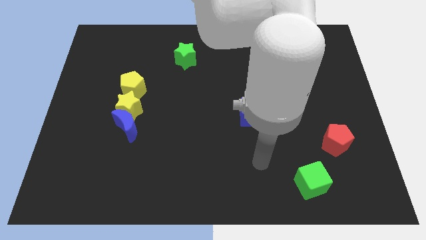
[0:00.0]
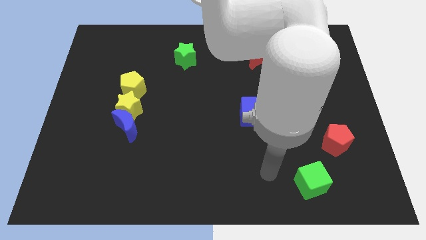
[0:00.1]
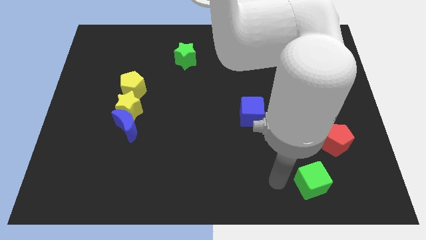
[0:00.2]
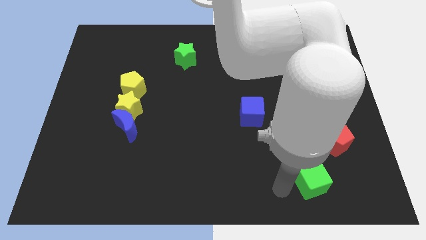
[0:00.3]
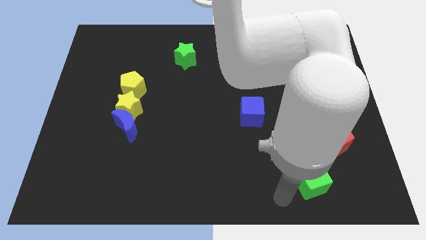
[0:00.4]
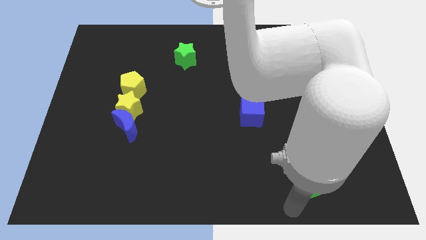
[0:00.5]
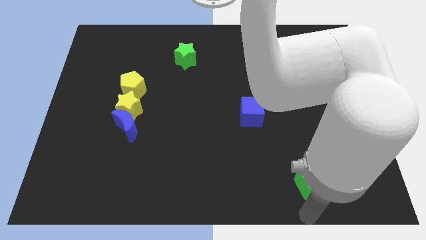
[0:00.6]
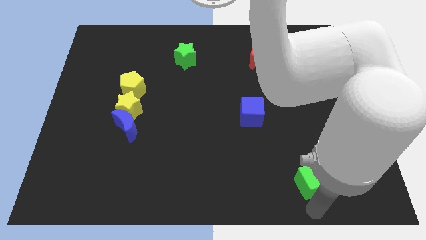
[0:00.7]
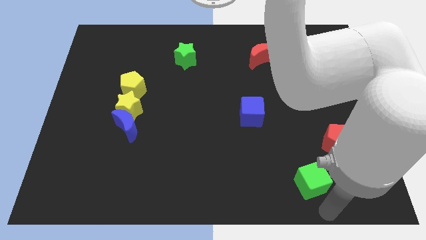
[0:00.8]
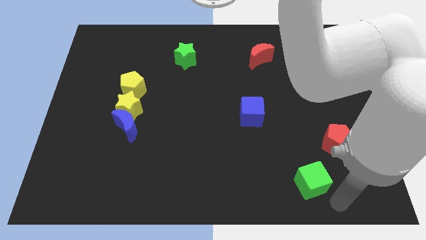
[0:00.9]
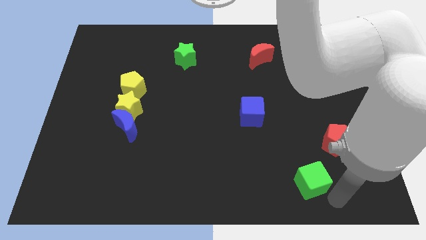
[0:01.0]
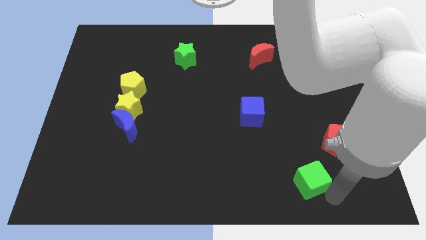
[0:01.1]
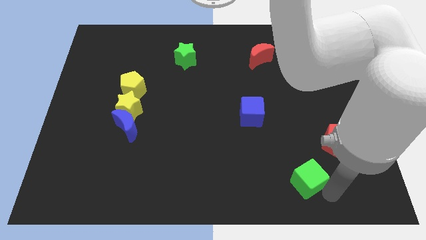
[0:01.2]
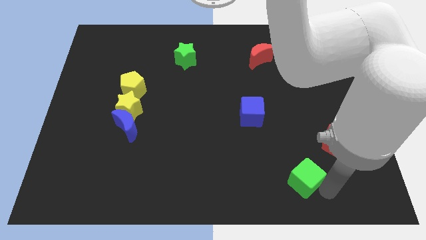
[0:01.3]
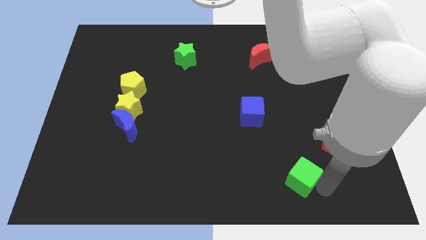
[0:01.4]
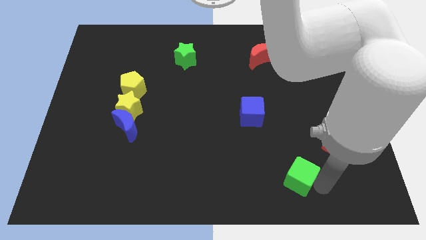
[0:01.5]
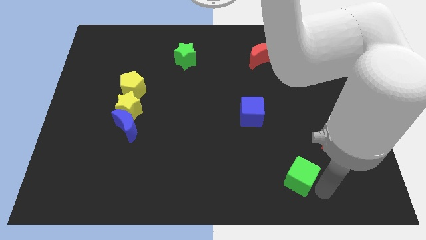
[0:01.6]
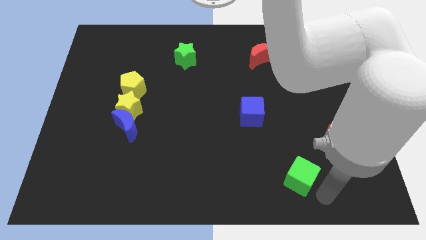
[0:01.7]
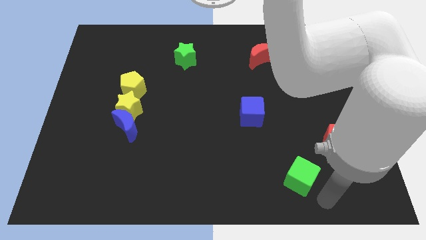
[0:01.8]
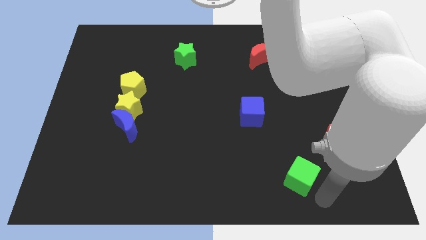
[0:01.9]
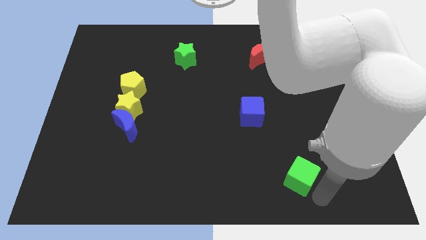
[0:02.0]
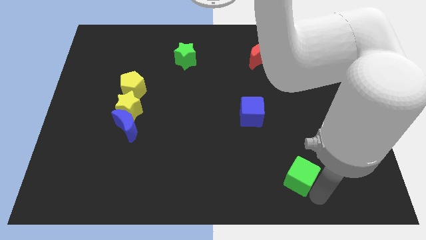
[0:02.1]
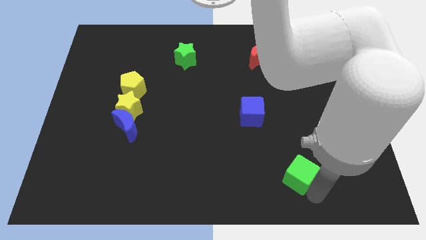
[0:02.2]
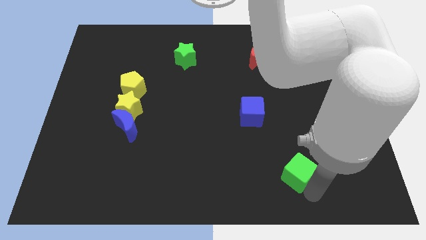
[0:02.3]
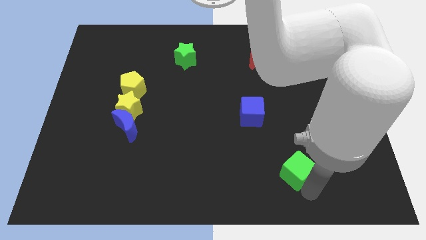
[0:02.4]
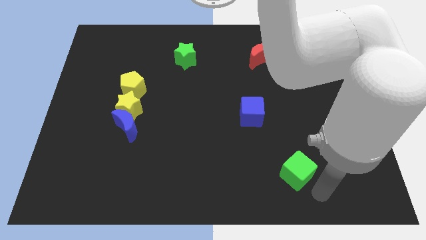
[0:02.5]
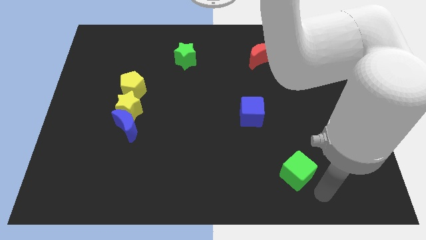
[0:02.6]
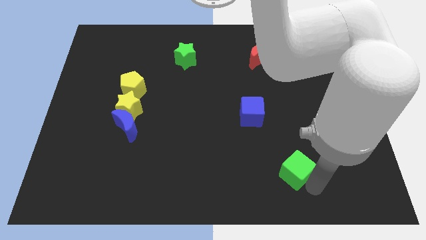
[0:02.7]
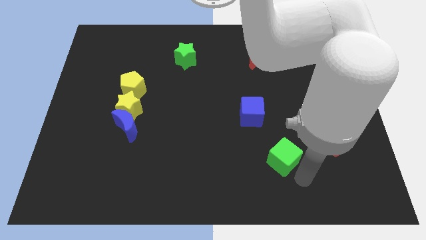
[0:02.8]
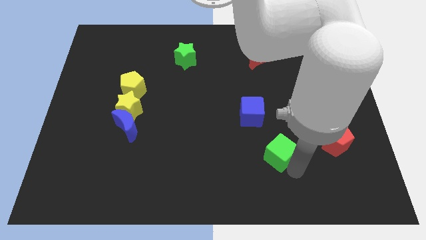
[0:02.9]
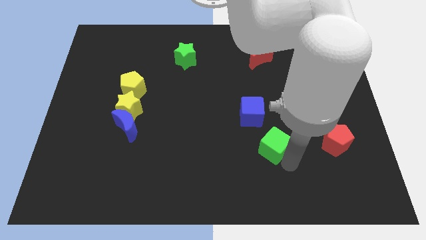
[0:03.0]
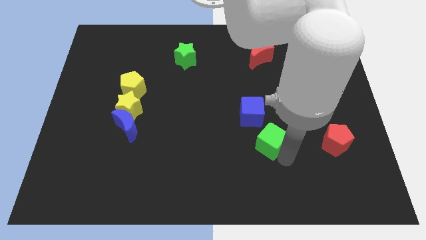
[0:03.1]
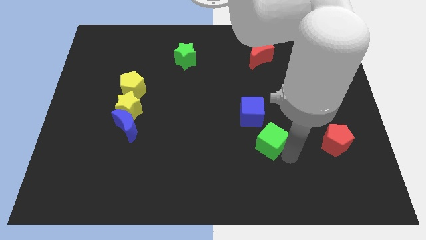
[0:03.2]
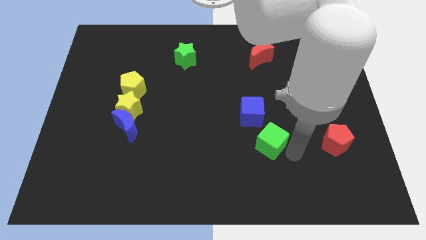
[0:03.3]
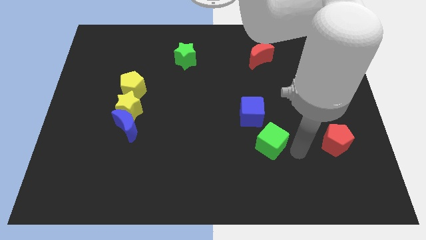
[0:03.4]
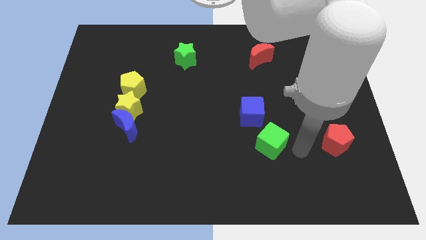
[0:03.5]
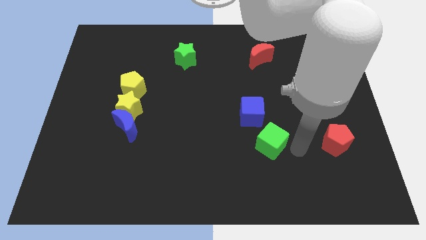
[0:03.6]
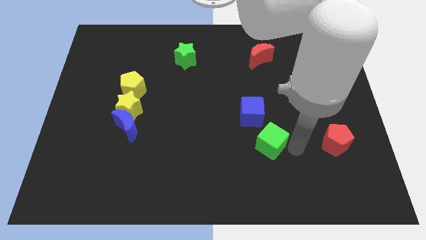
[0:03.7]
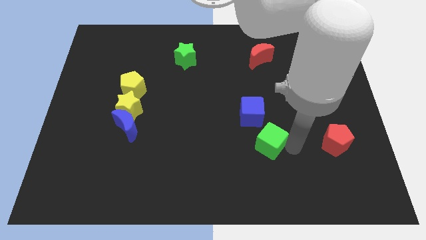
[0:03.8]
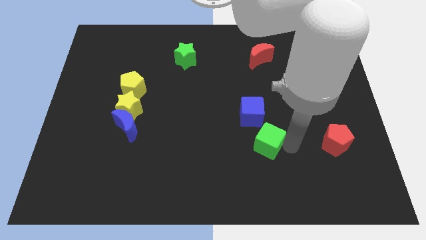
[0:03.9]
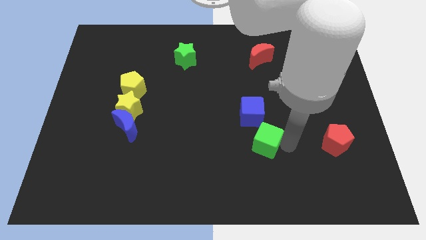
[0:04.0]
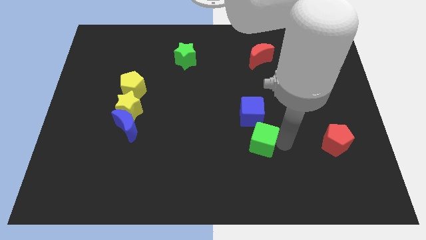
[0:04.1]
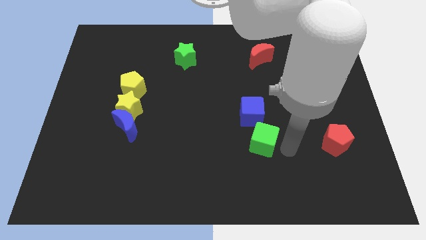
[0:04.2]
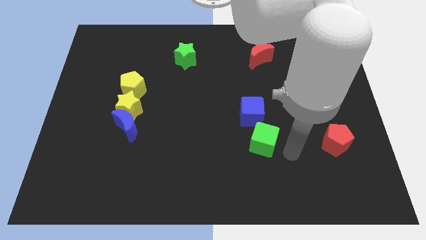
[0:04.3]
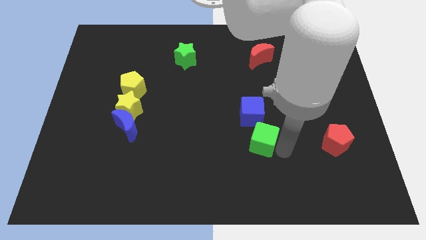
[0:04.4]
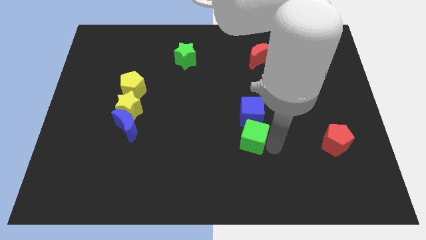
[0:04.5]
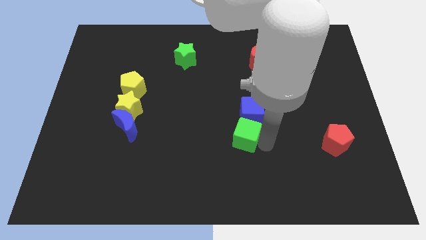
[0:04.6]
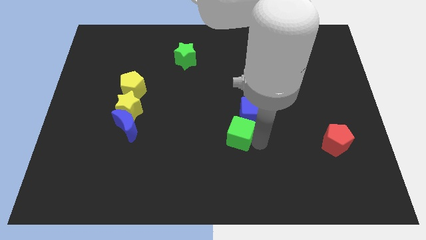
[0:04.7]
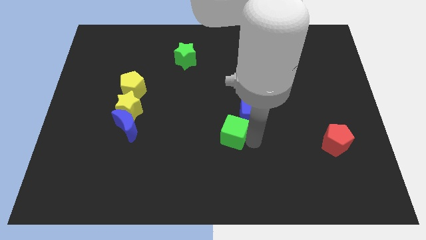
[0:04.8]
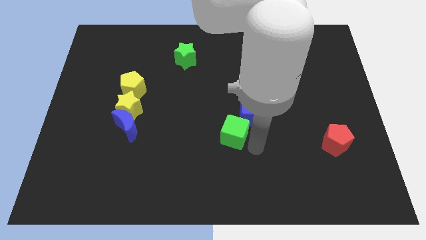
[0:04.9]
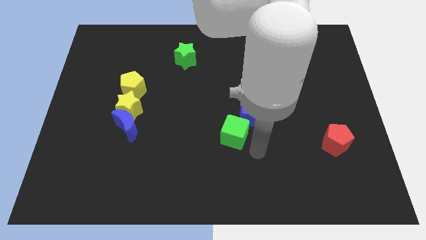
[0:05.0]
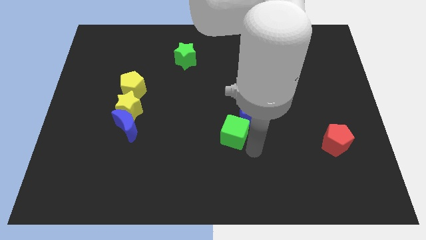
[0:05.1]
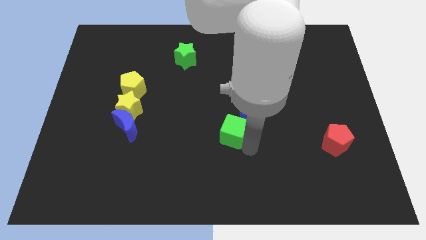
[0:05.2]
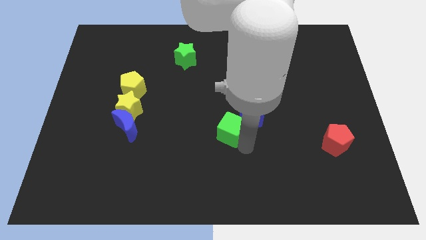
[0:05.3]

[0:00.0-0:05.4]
put the green cube left of the blue cube

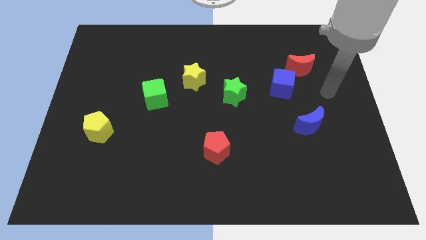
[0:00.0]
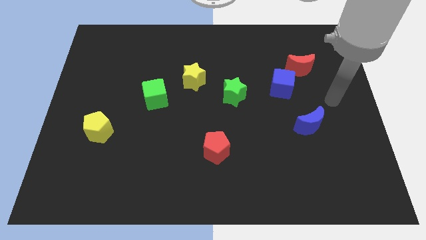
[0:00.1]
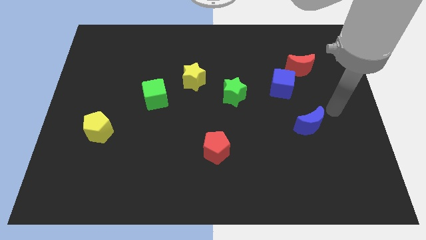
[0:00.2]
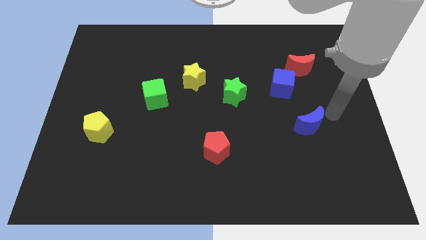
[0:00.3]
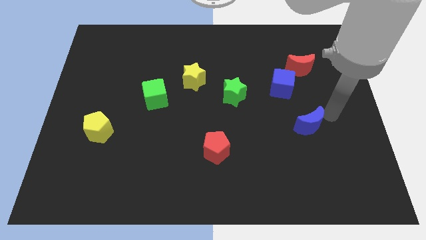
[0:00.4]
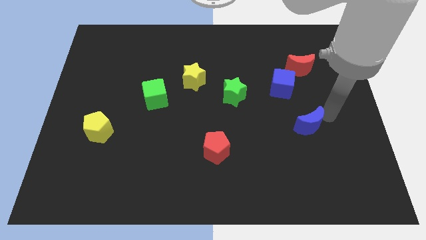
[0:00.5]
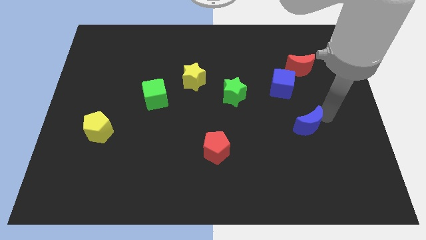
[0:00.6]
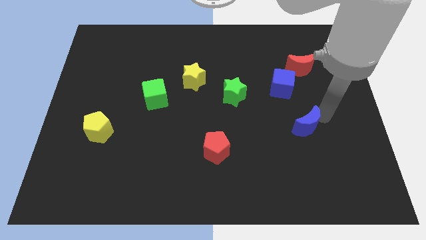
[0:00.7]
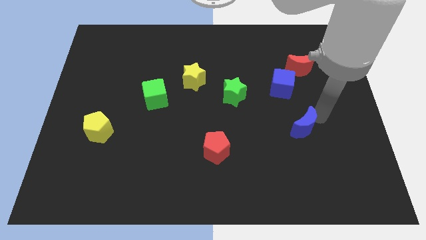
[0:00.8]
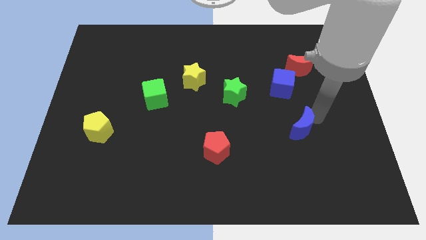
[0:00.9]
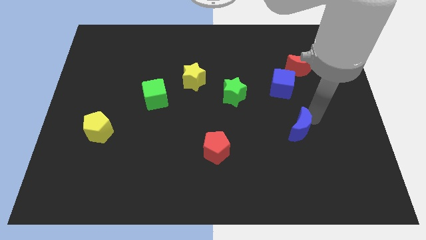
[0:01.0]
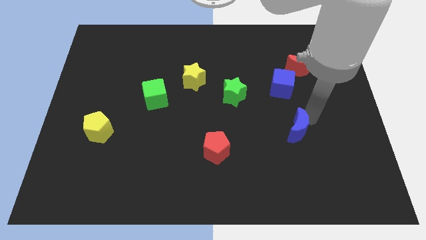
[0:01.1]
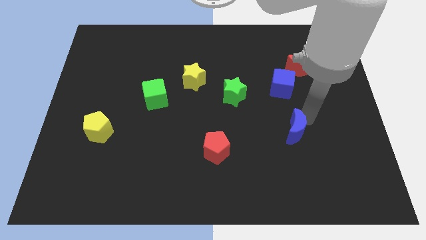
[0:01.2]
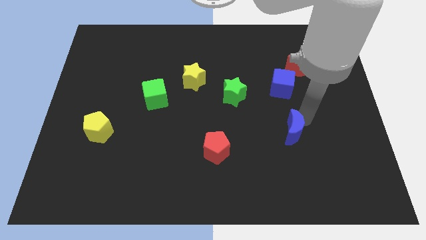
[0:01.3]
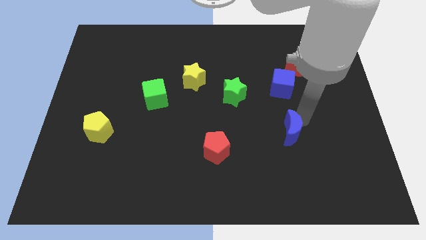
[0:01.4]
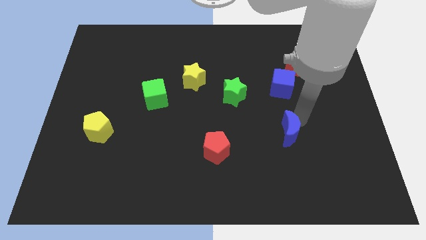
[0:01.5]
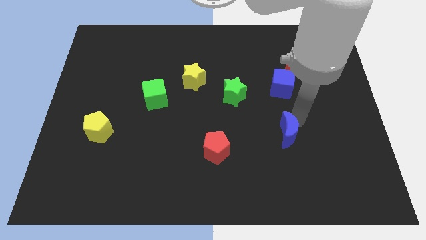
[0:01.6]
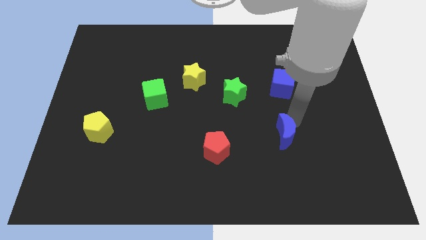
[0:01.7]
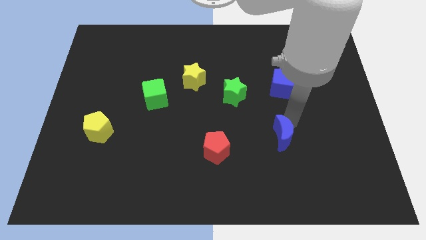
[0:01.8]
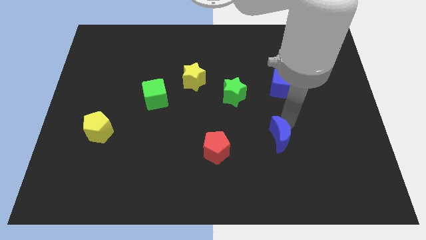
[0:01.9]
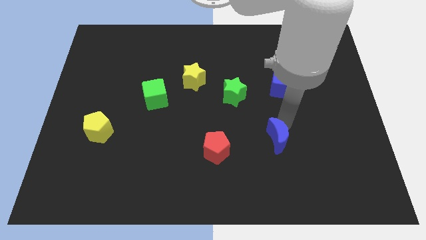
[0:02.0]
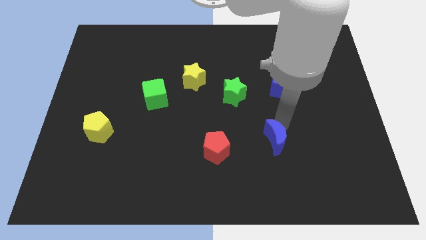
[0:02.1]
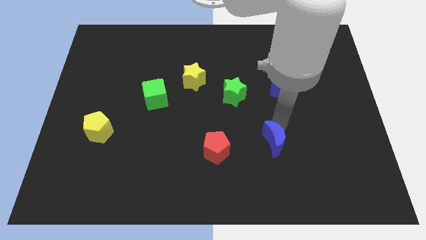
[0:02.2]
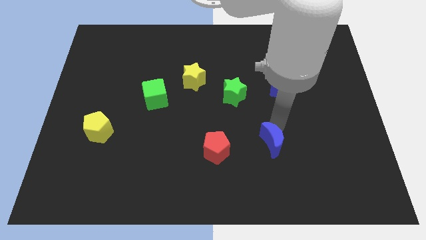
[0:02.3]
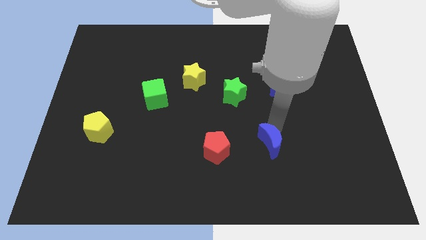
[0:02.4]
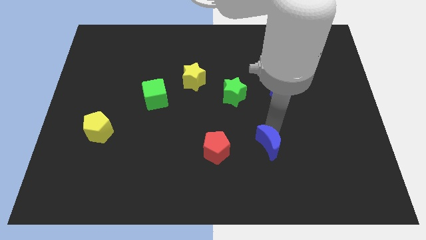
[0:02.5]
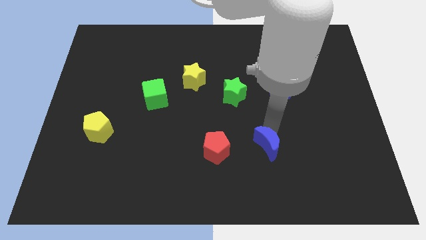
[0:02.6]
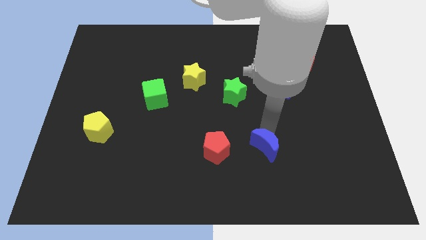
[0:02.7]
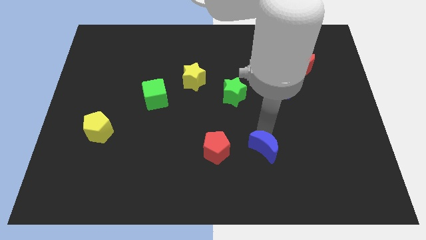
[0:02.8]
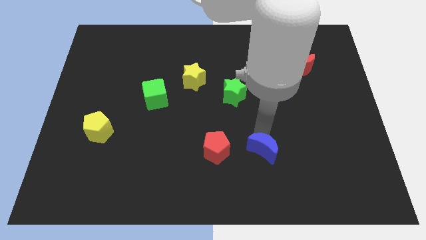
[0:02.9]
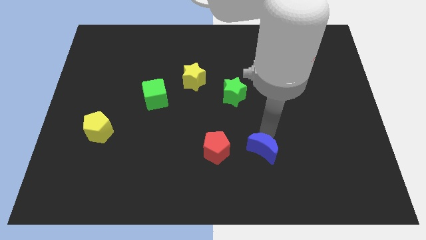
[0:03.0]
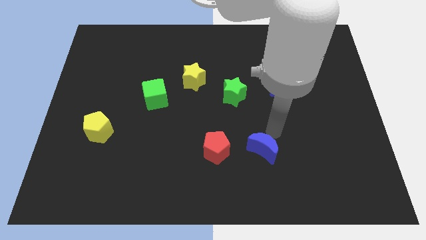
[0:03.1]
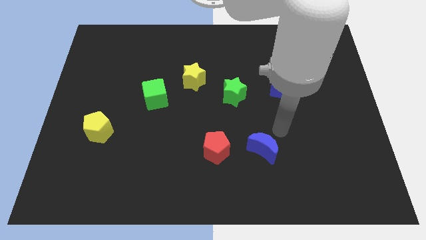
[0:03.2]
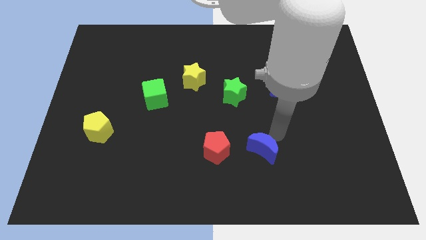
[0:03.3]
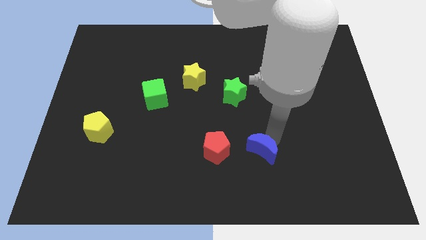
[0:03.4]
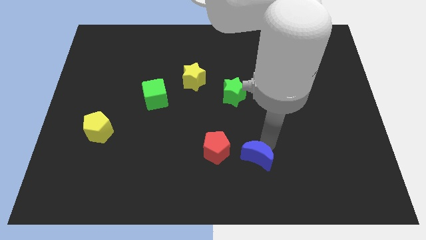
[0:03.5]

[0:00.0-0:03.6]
move the blue moon to the bottom right of the red pentagon
